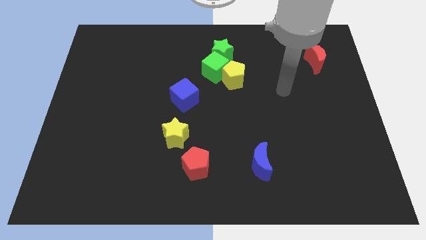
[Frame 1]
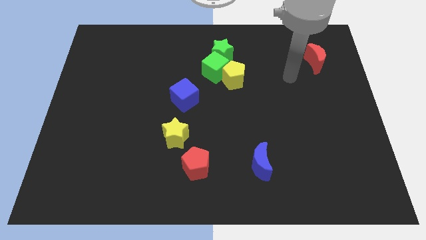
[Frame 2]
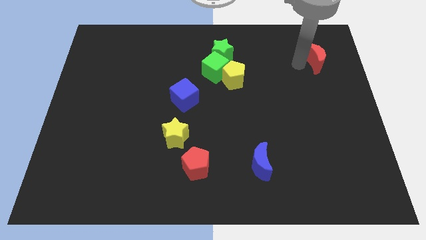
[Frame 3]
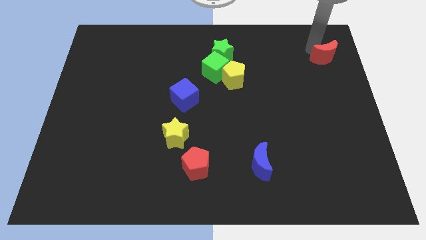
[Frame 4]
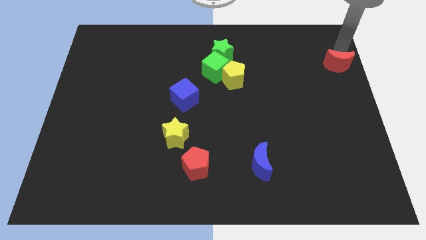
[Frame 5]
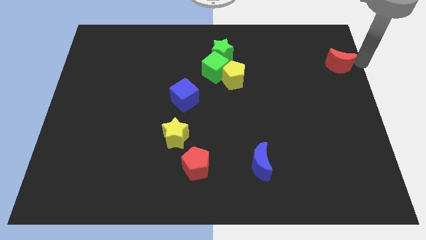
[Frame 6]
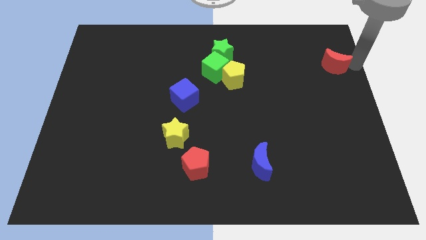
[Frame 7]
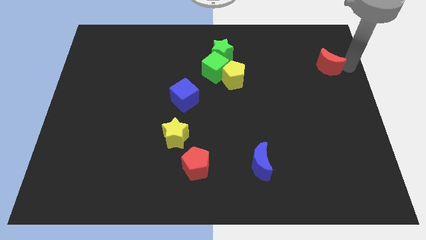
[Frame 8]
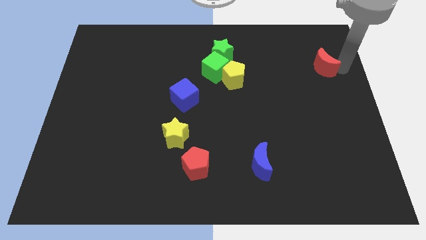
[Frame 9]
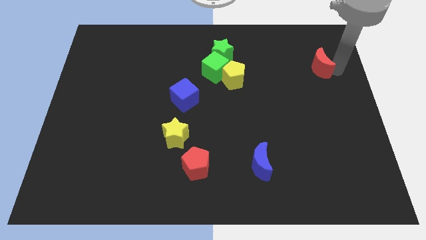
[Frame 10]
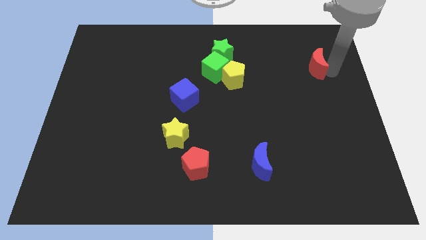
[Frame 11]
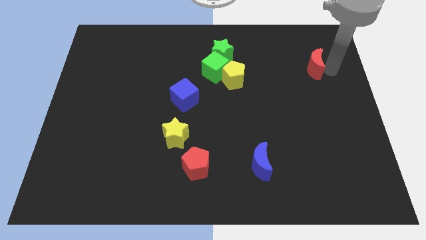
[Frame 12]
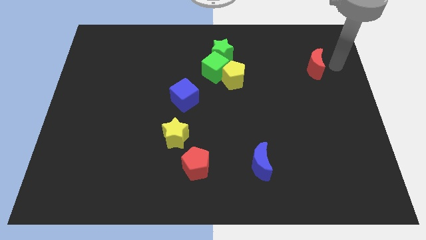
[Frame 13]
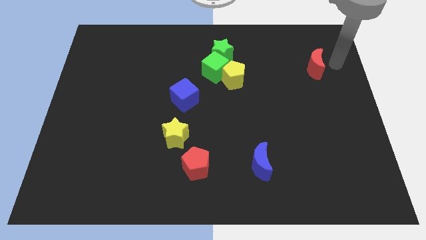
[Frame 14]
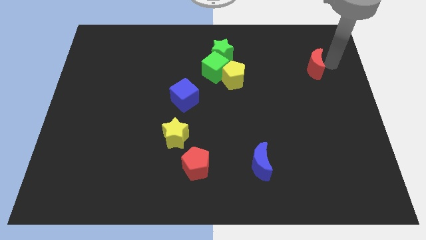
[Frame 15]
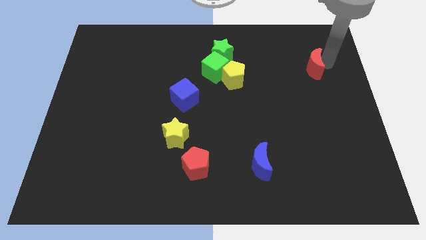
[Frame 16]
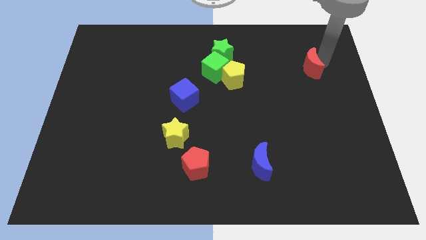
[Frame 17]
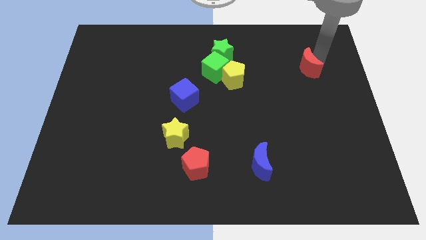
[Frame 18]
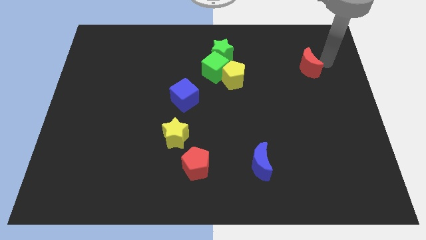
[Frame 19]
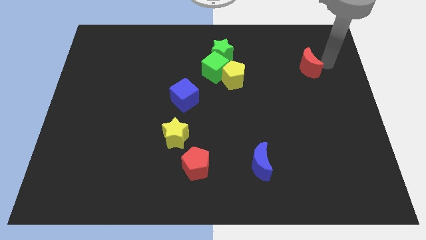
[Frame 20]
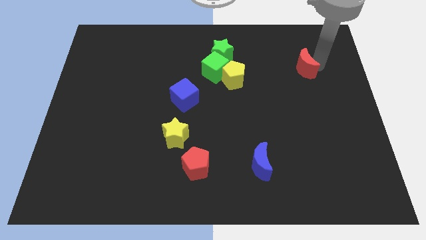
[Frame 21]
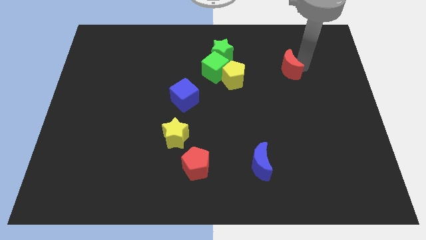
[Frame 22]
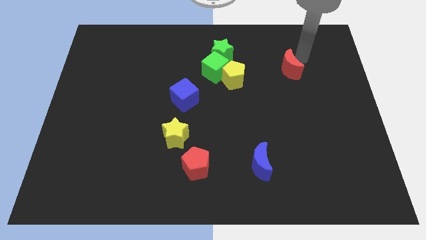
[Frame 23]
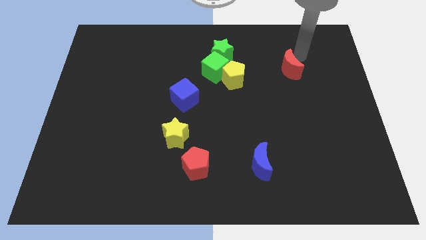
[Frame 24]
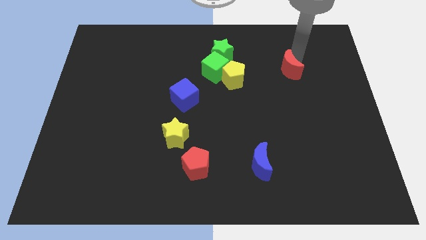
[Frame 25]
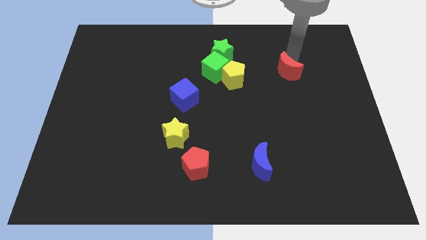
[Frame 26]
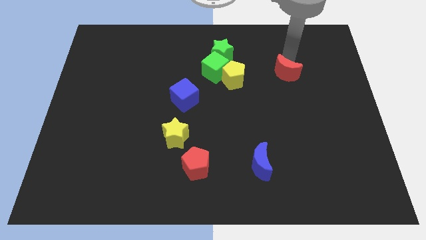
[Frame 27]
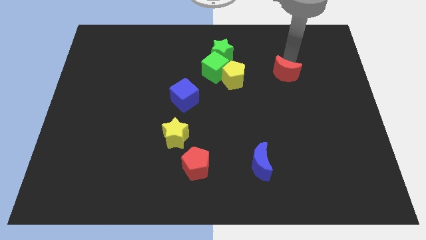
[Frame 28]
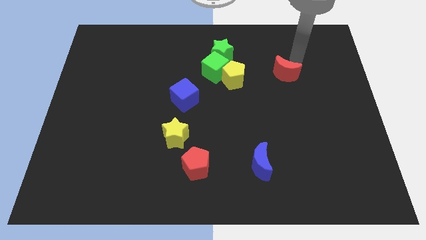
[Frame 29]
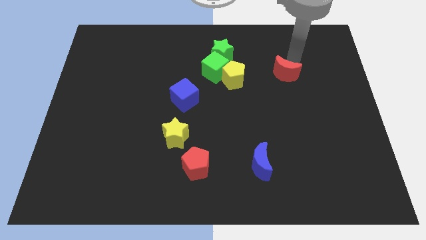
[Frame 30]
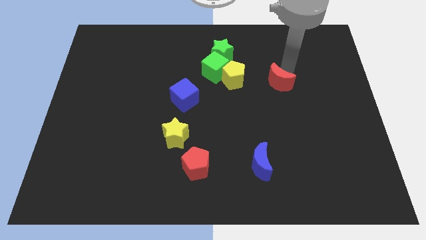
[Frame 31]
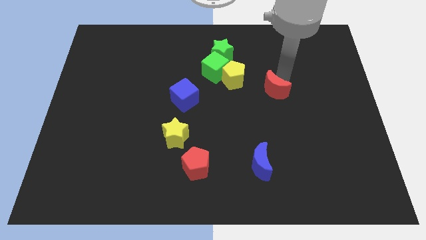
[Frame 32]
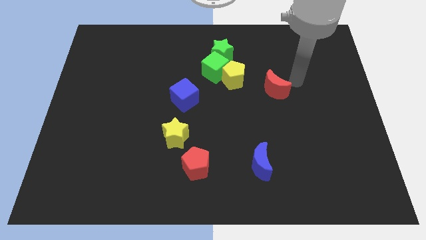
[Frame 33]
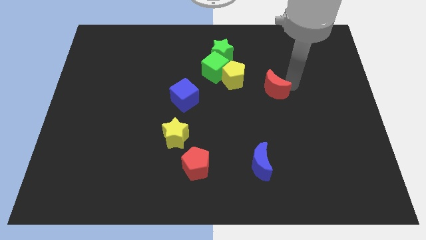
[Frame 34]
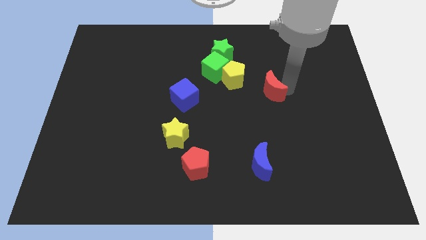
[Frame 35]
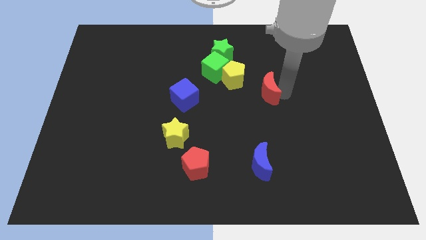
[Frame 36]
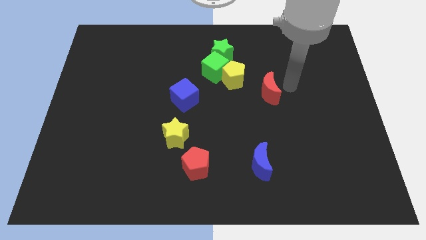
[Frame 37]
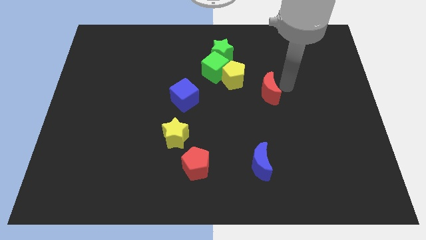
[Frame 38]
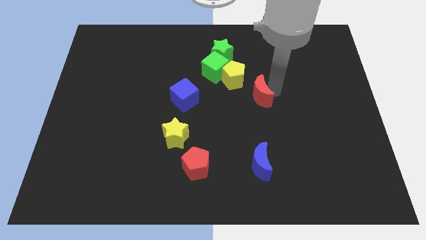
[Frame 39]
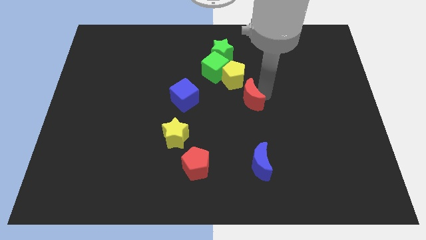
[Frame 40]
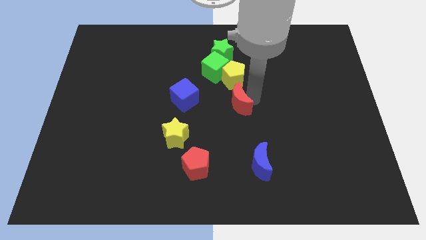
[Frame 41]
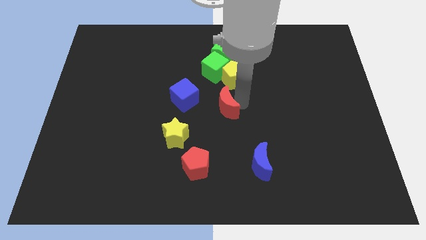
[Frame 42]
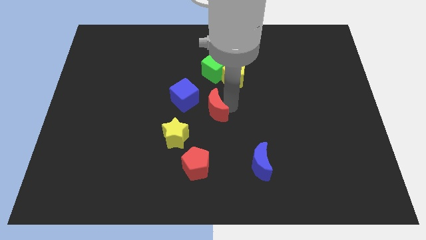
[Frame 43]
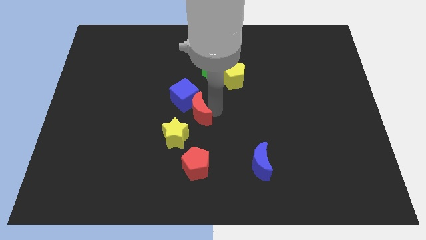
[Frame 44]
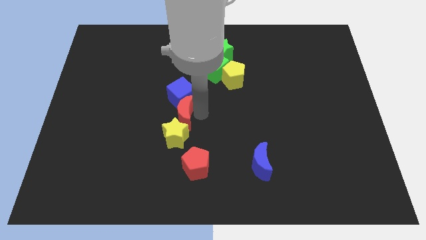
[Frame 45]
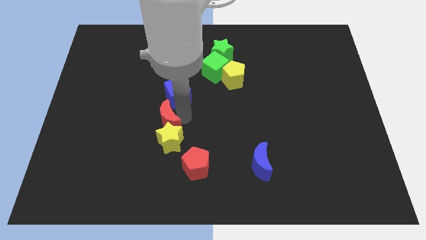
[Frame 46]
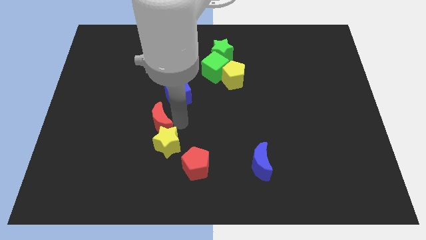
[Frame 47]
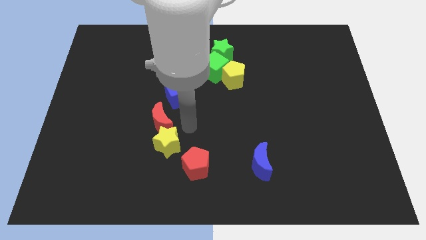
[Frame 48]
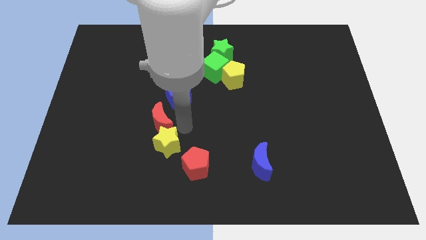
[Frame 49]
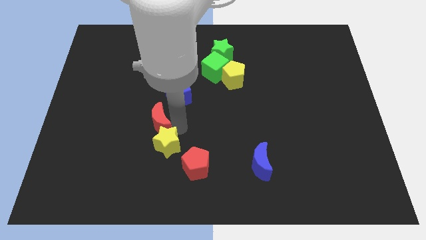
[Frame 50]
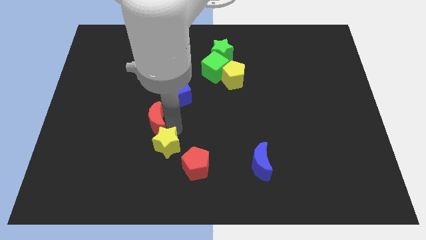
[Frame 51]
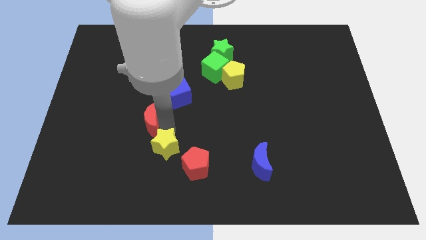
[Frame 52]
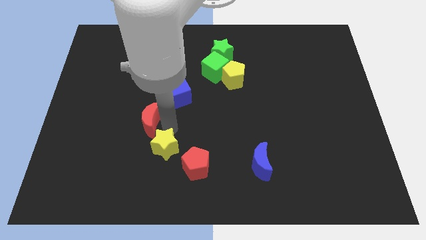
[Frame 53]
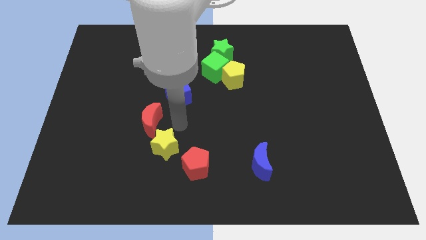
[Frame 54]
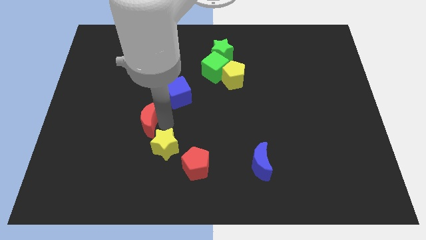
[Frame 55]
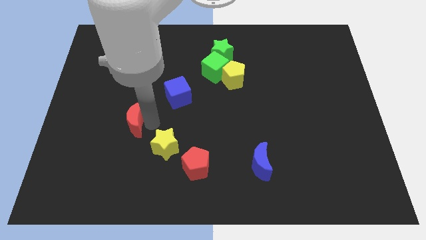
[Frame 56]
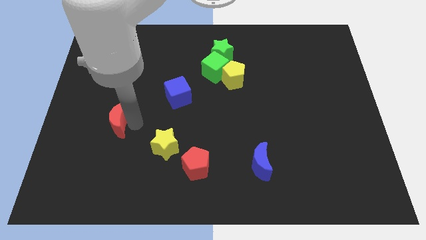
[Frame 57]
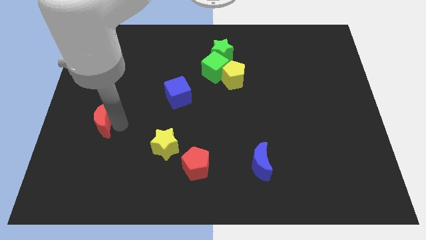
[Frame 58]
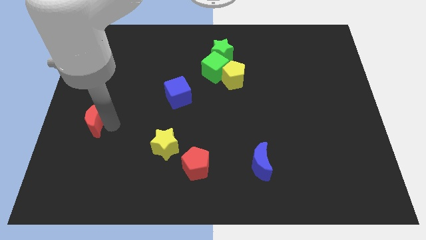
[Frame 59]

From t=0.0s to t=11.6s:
push the red moon to the center left

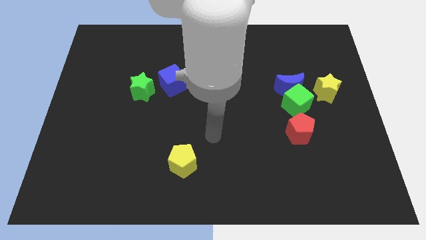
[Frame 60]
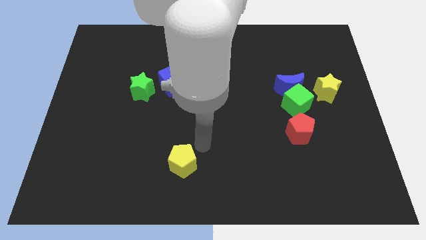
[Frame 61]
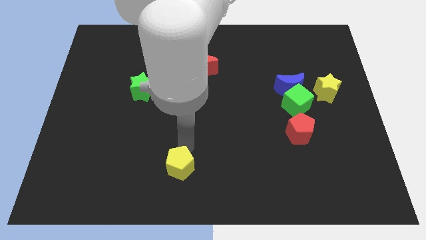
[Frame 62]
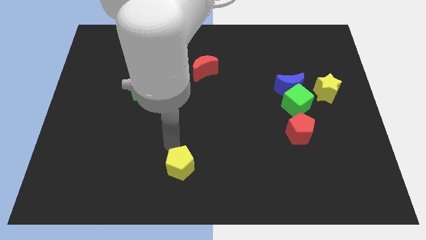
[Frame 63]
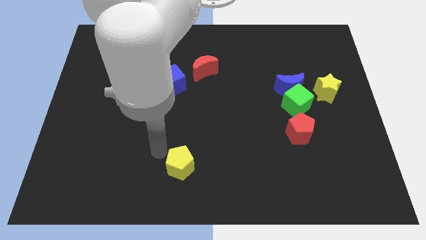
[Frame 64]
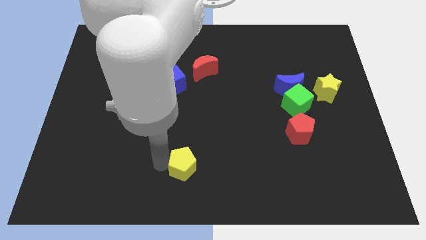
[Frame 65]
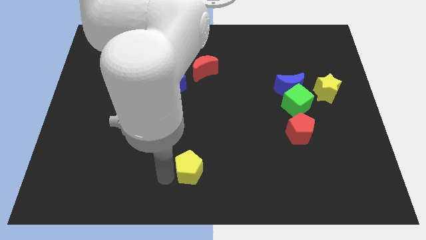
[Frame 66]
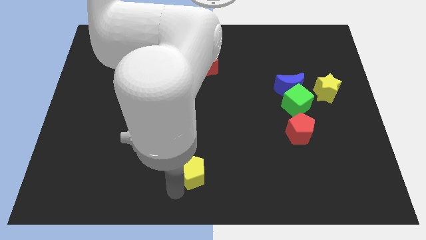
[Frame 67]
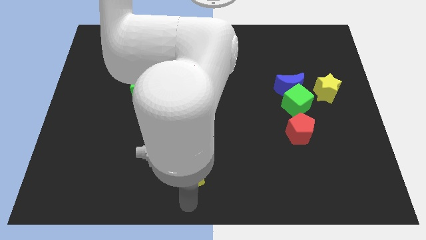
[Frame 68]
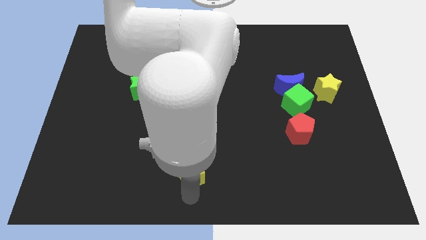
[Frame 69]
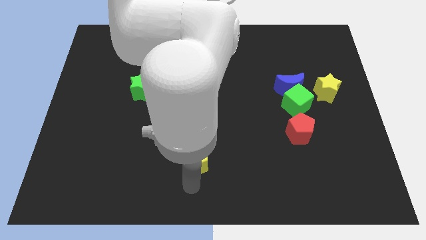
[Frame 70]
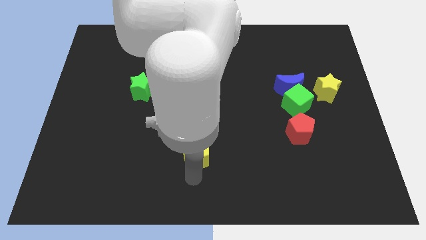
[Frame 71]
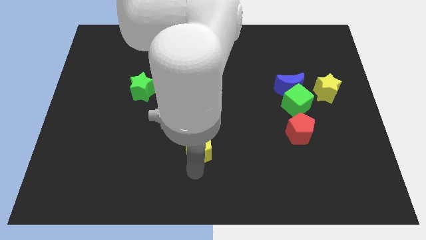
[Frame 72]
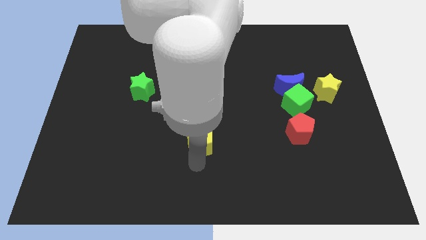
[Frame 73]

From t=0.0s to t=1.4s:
put the yellow pentagon to the middle
